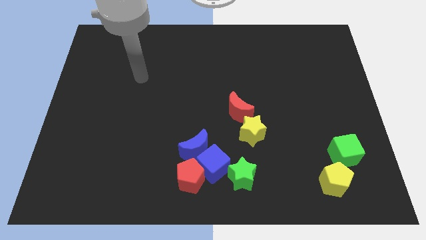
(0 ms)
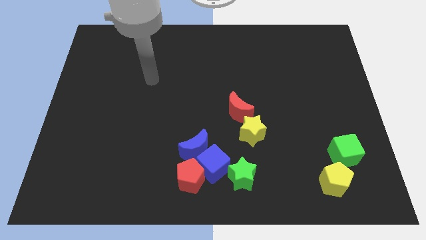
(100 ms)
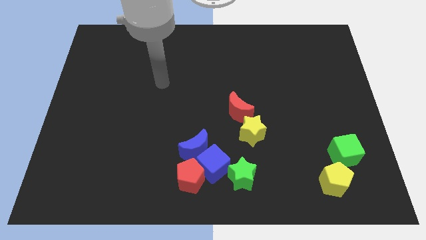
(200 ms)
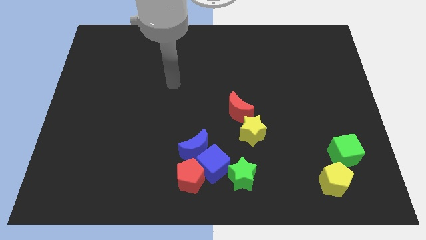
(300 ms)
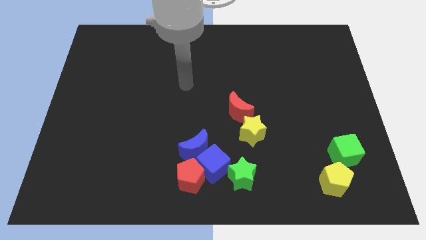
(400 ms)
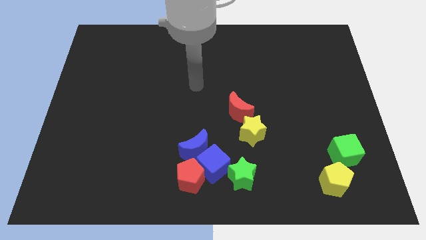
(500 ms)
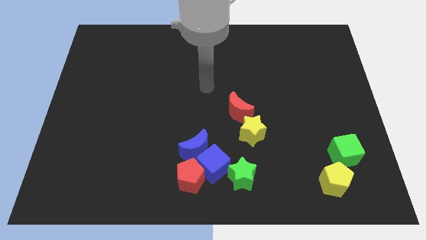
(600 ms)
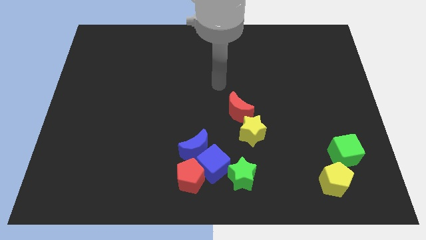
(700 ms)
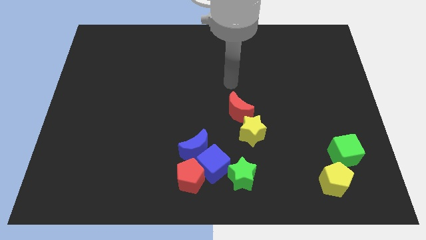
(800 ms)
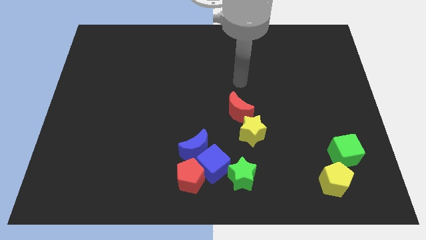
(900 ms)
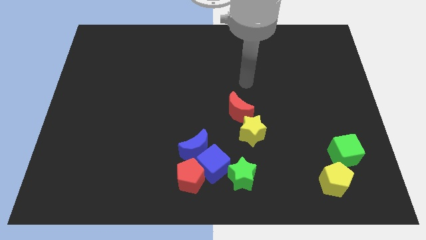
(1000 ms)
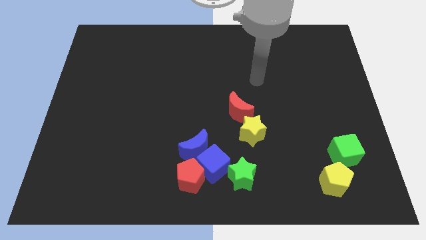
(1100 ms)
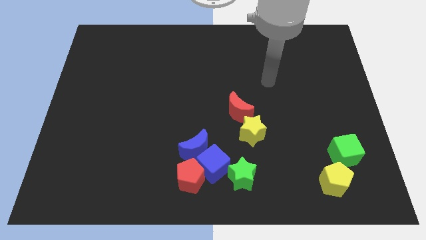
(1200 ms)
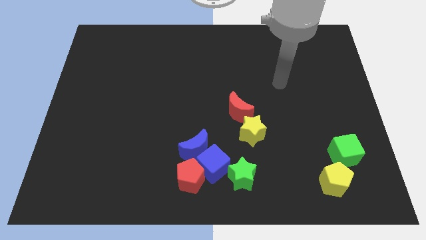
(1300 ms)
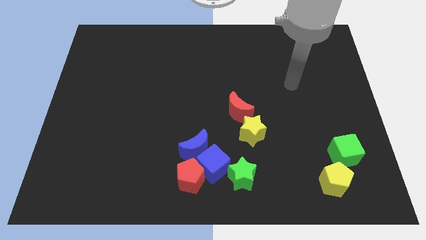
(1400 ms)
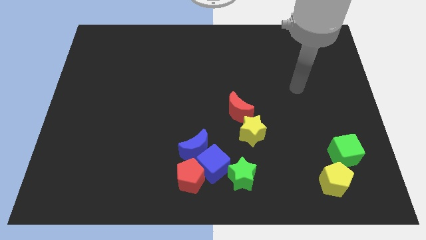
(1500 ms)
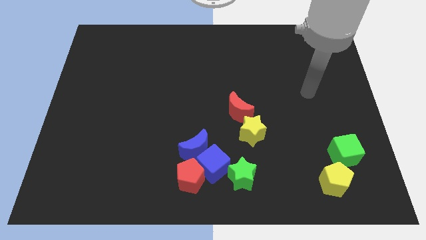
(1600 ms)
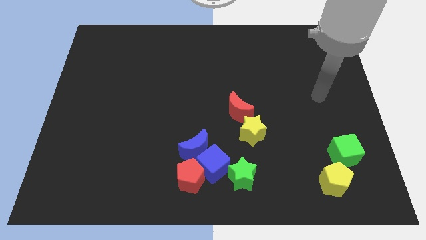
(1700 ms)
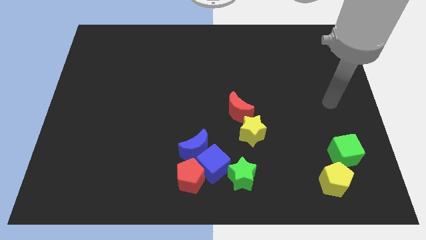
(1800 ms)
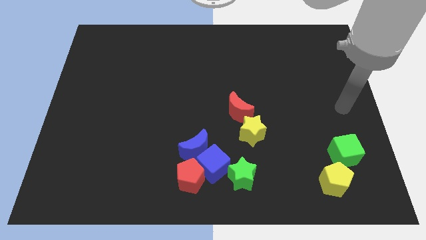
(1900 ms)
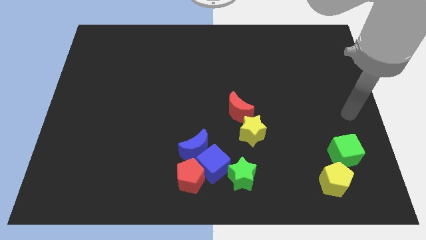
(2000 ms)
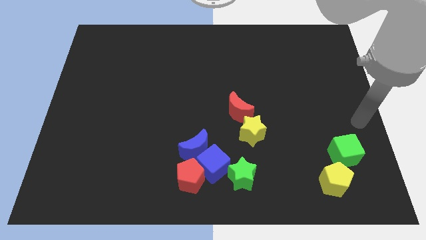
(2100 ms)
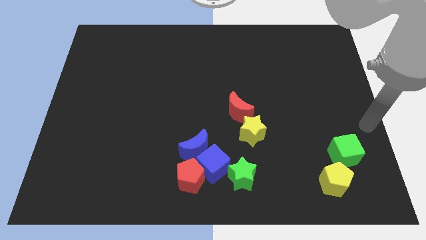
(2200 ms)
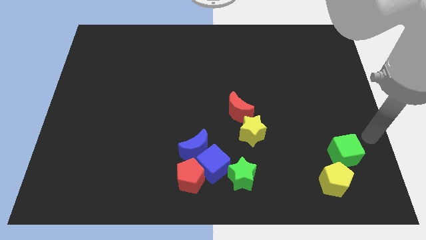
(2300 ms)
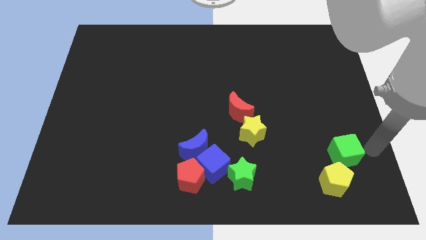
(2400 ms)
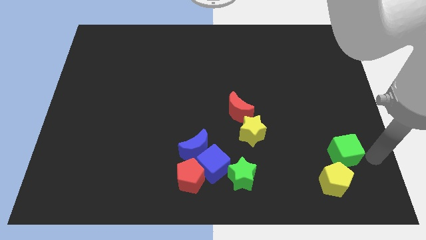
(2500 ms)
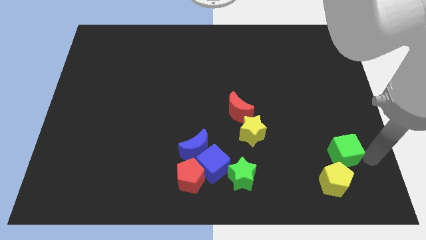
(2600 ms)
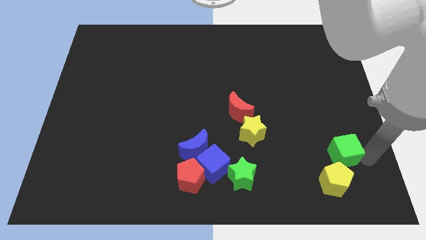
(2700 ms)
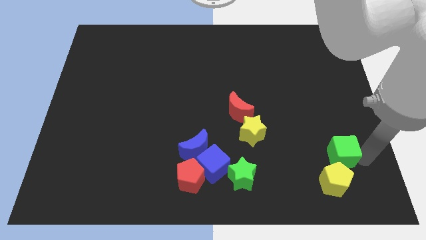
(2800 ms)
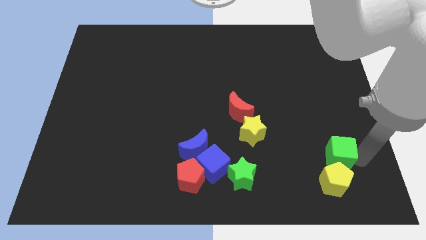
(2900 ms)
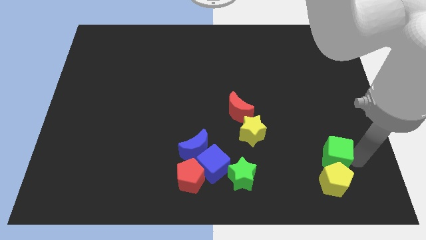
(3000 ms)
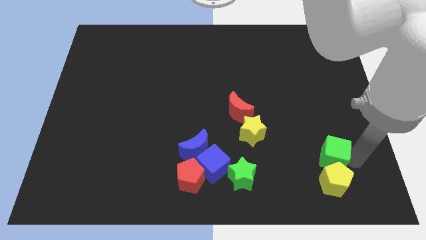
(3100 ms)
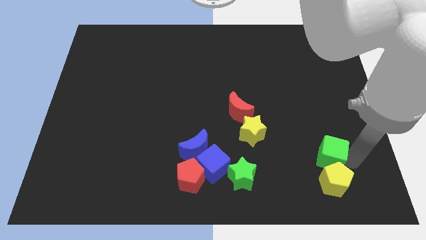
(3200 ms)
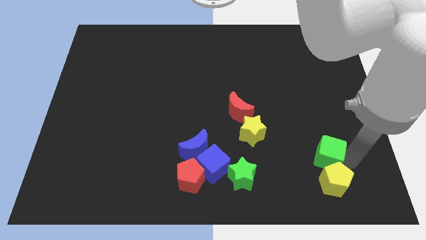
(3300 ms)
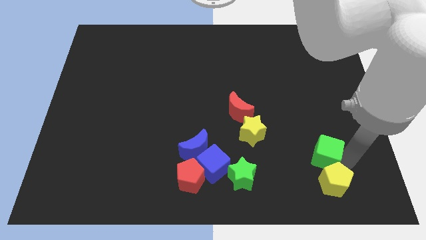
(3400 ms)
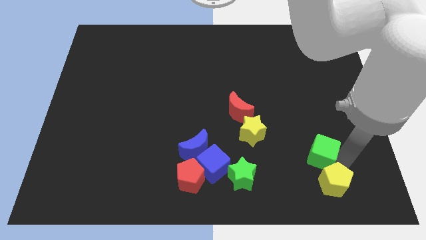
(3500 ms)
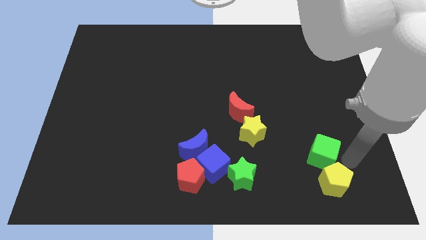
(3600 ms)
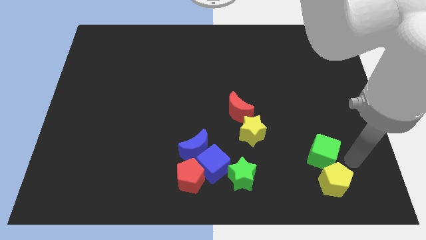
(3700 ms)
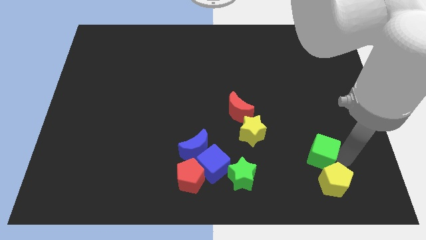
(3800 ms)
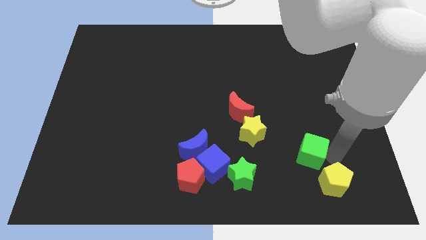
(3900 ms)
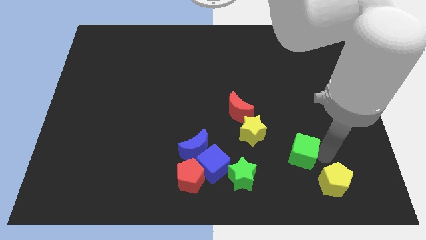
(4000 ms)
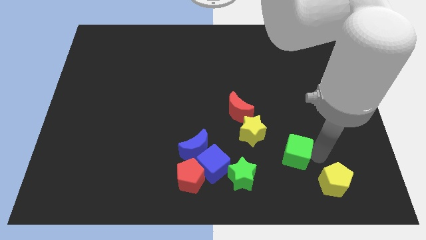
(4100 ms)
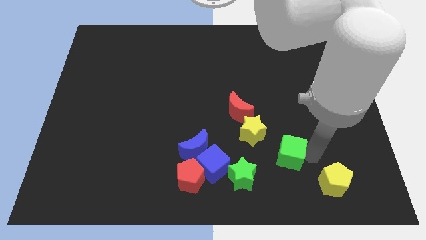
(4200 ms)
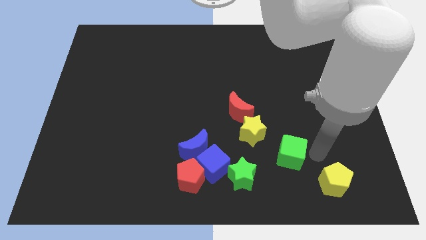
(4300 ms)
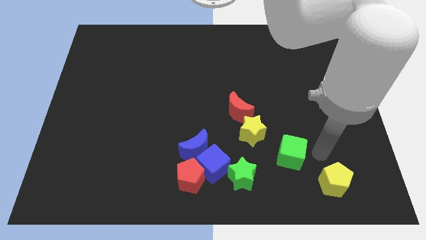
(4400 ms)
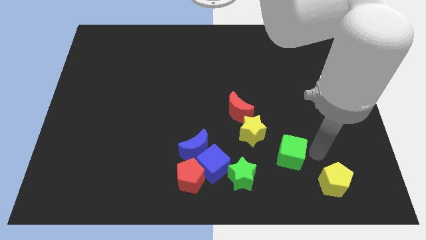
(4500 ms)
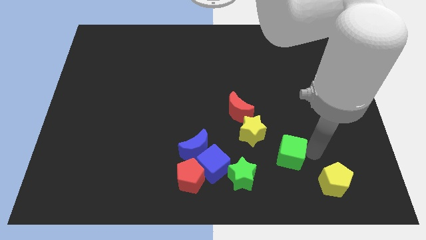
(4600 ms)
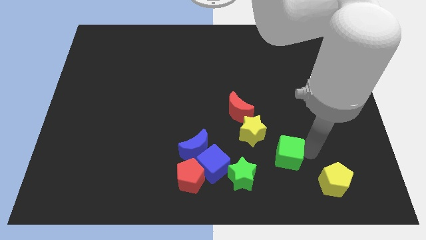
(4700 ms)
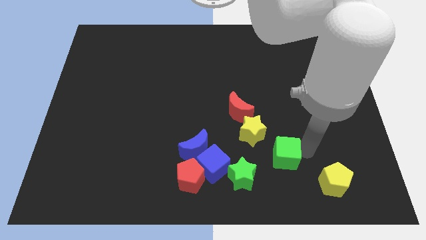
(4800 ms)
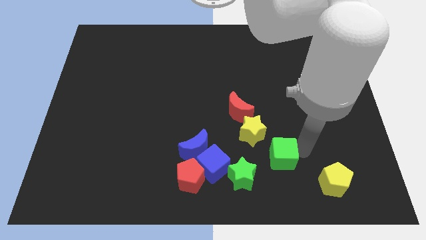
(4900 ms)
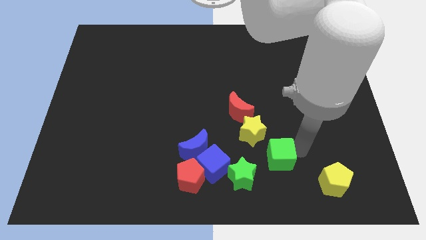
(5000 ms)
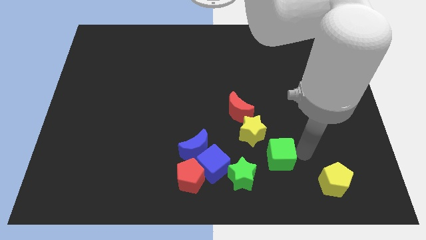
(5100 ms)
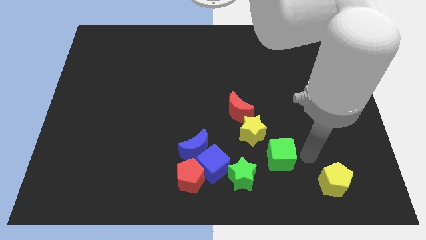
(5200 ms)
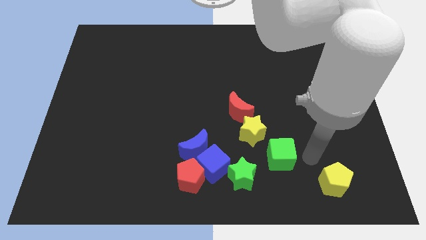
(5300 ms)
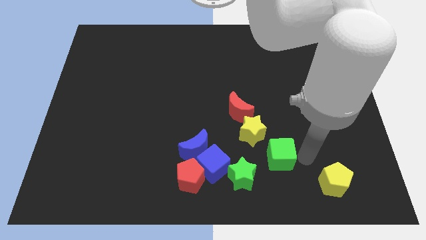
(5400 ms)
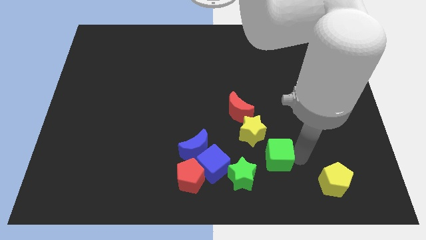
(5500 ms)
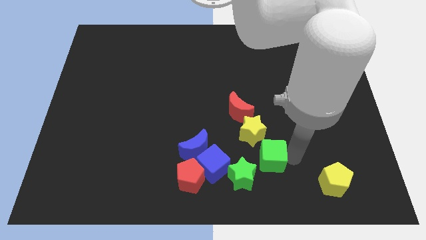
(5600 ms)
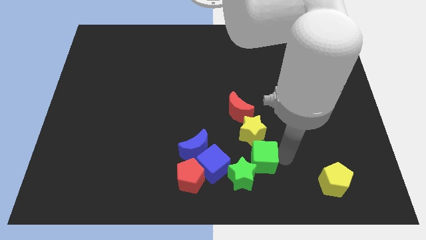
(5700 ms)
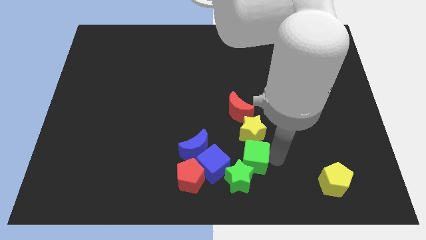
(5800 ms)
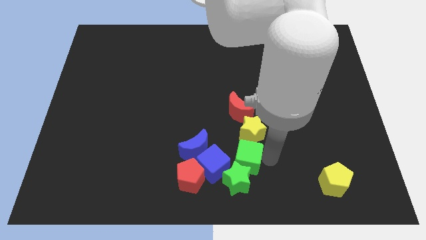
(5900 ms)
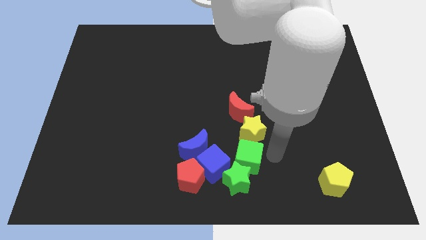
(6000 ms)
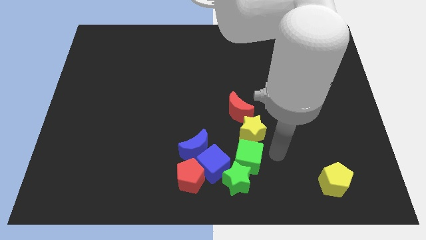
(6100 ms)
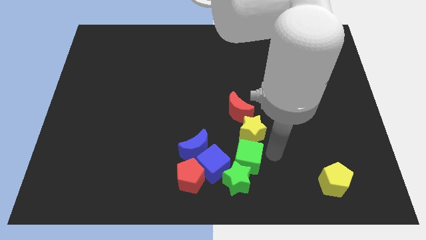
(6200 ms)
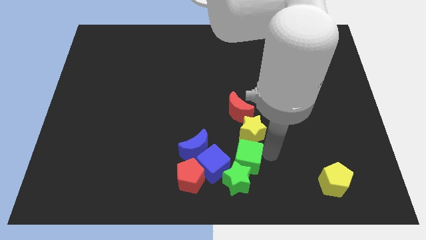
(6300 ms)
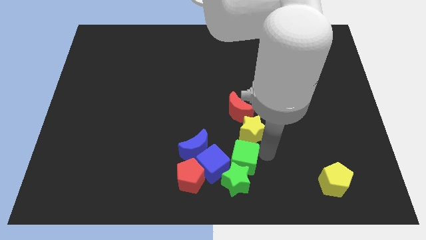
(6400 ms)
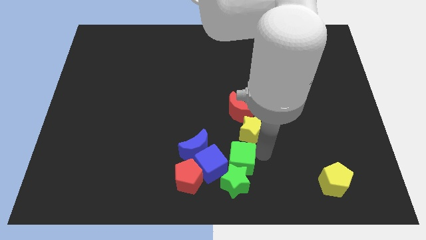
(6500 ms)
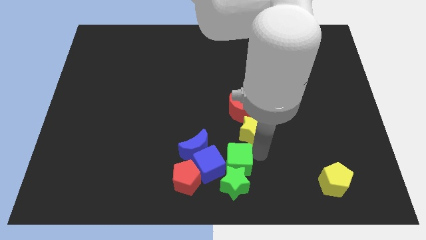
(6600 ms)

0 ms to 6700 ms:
slide the green cube next to the blue cube
